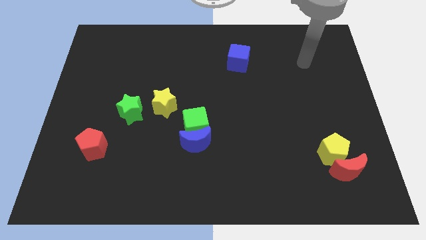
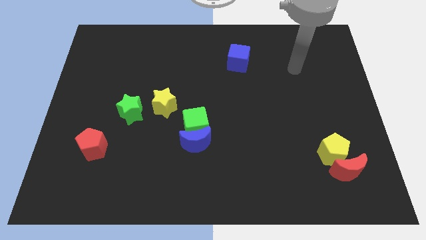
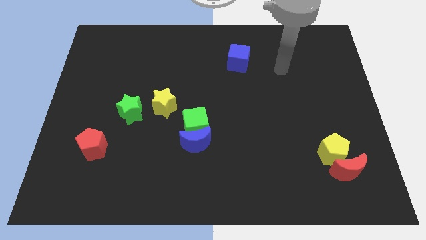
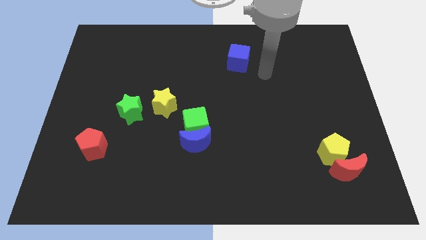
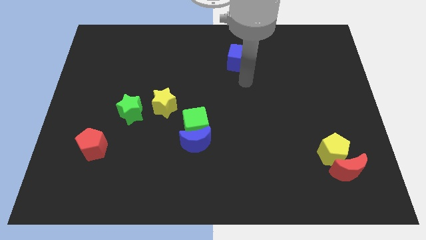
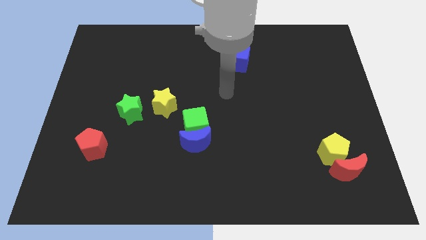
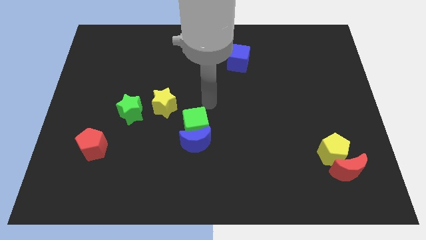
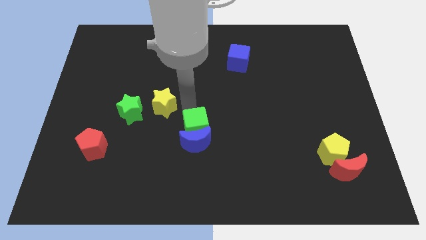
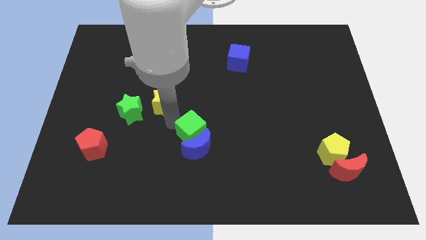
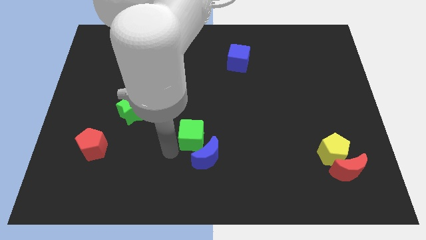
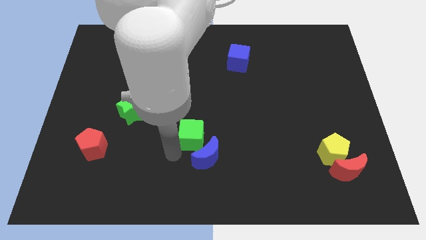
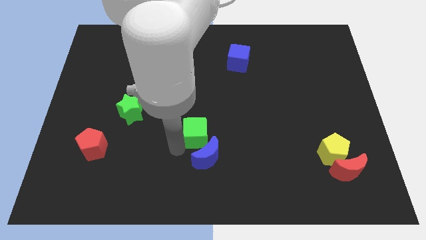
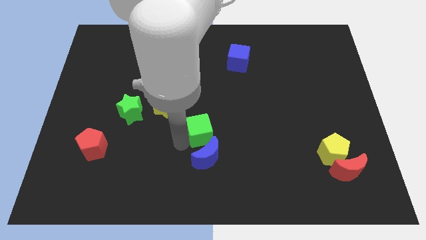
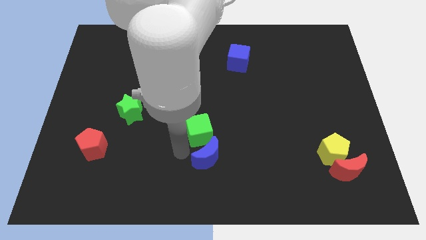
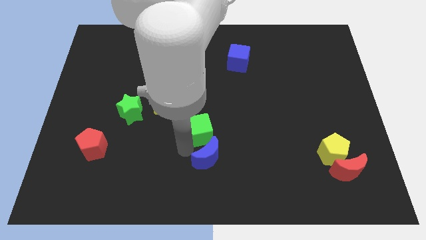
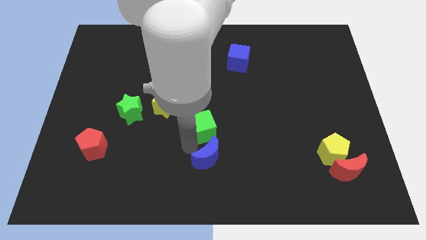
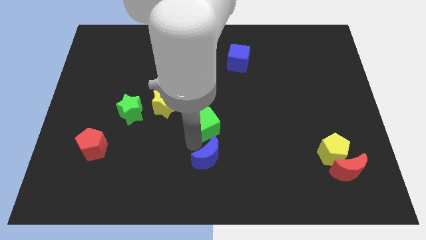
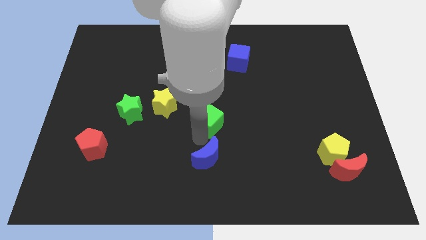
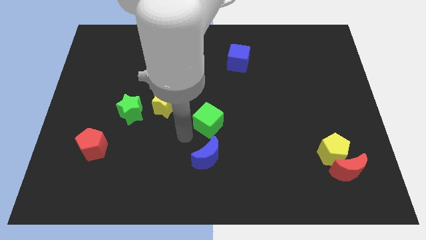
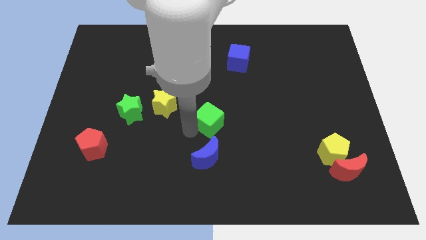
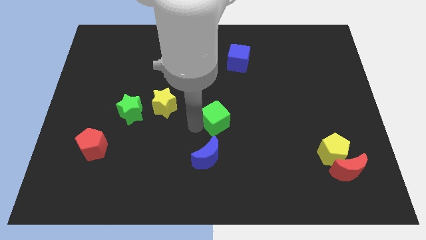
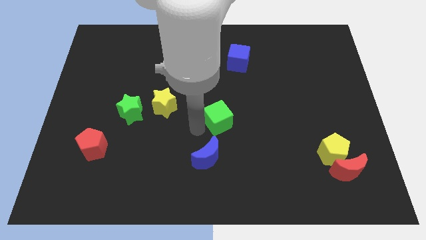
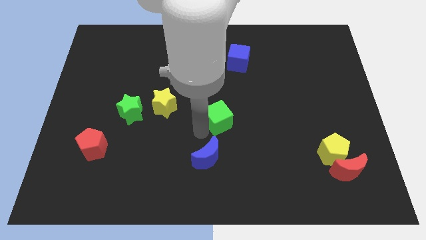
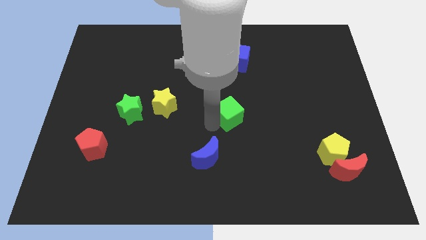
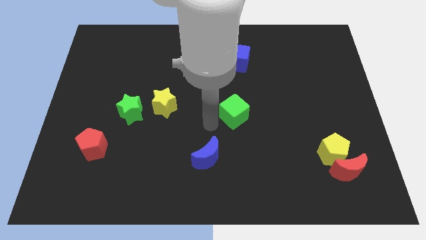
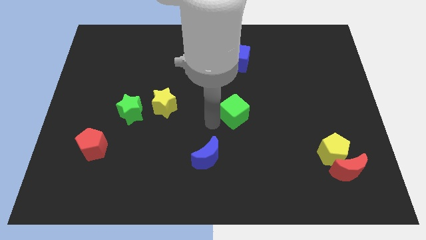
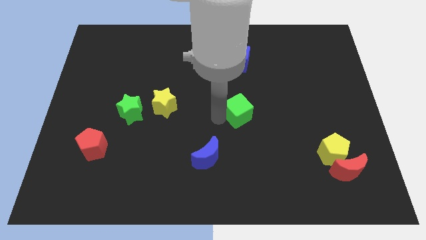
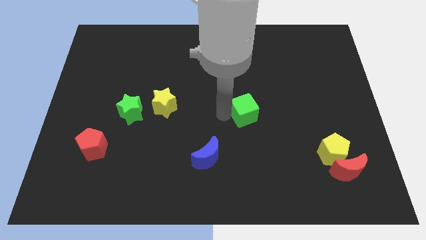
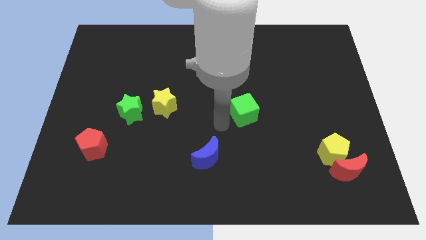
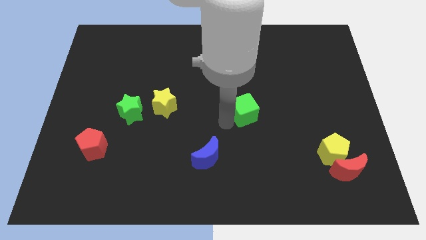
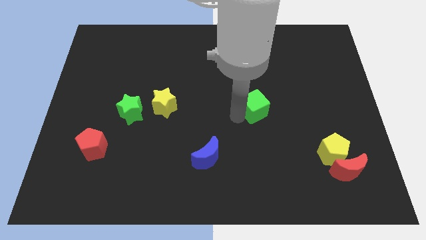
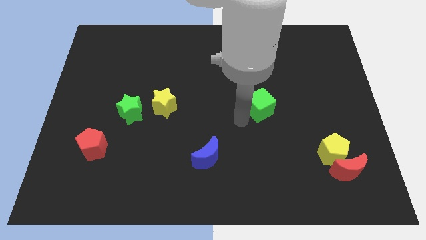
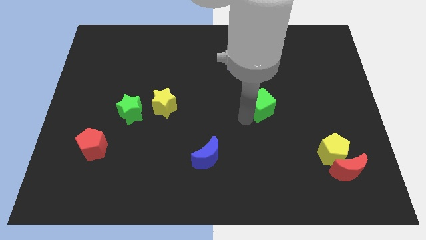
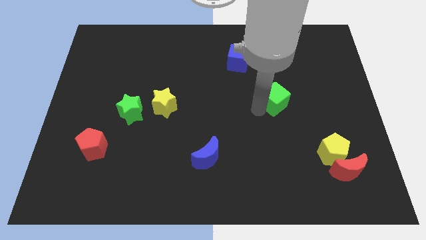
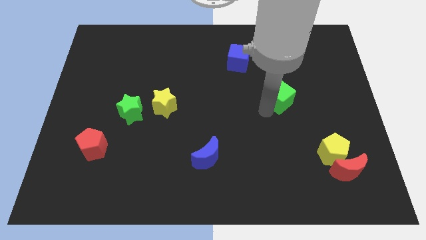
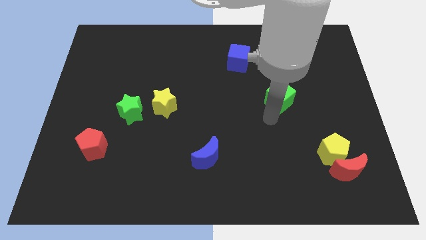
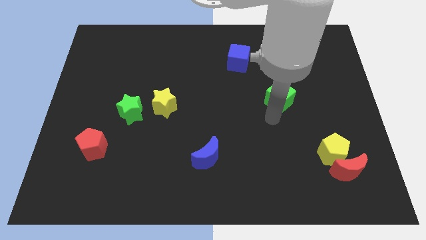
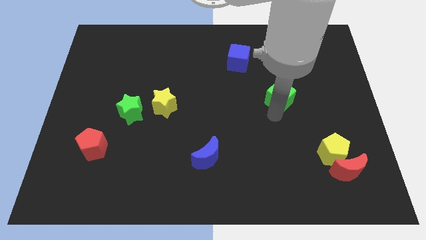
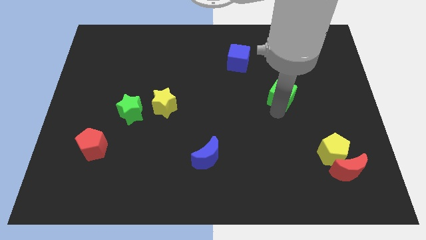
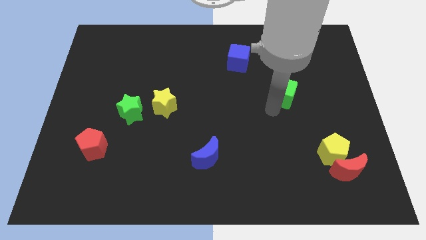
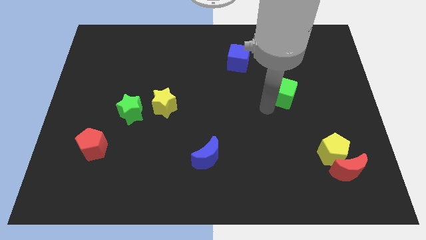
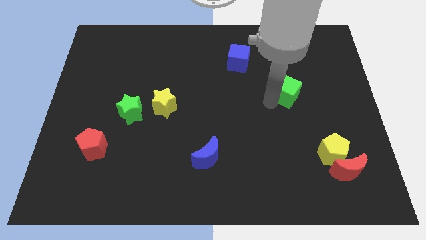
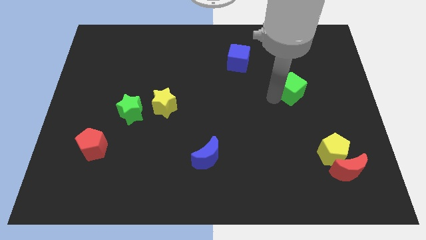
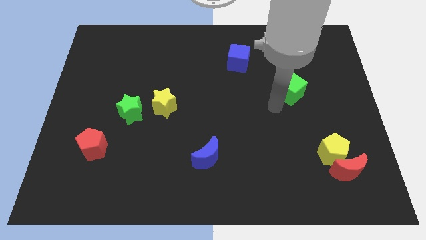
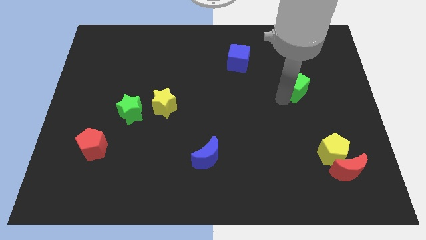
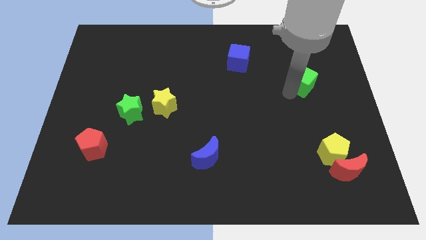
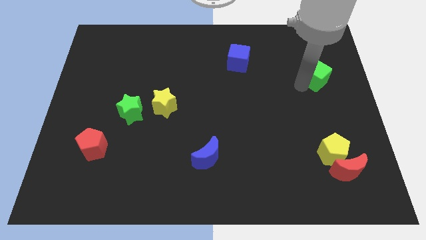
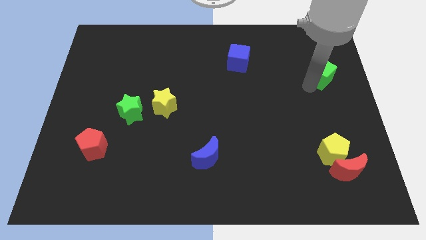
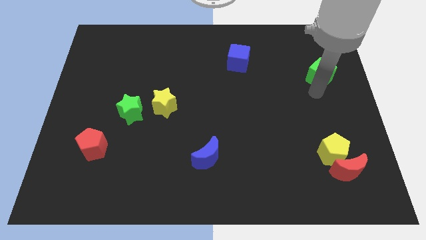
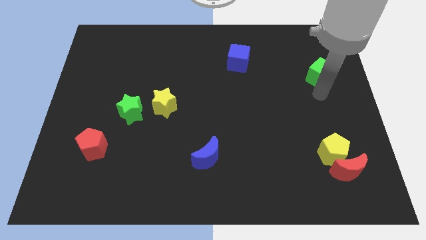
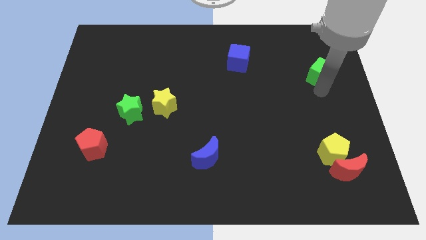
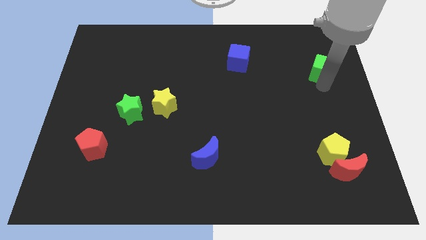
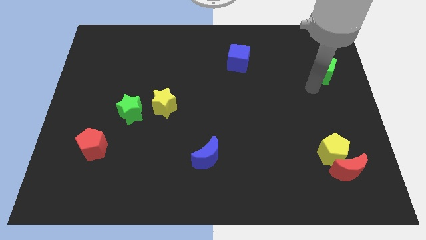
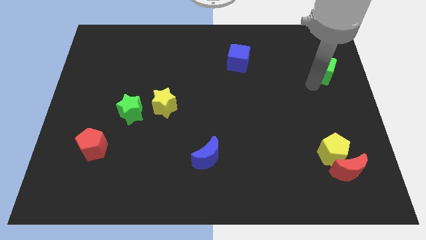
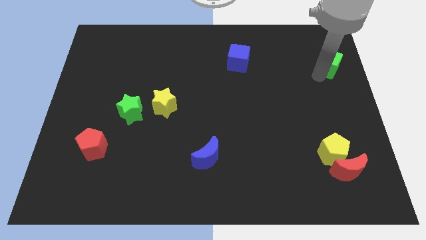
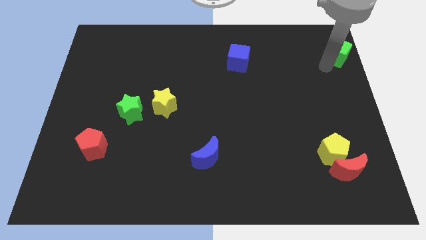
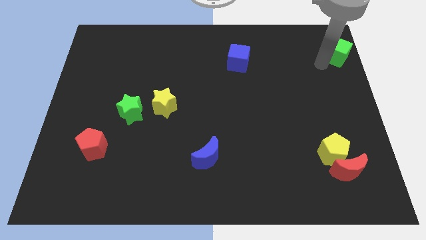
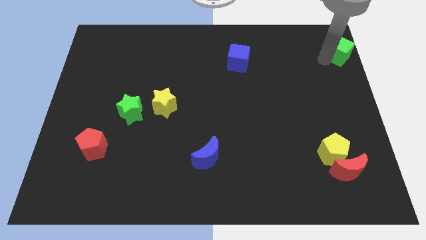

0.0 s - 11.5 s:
push the green cube to the top right

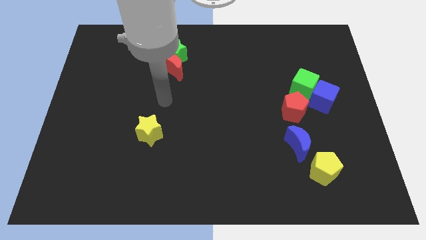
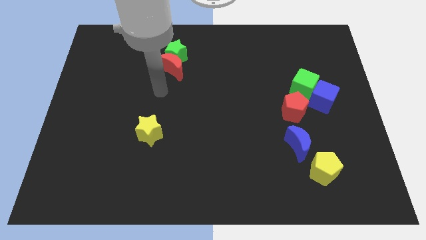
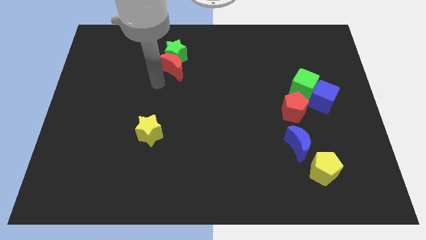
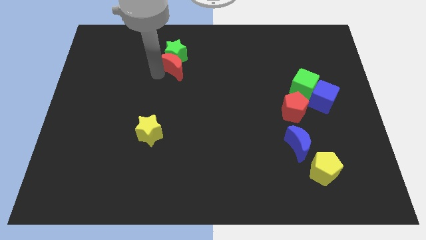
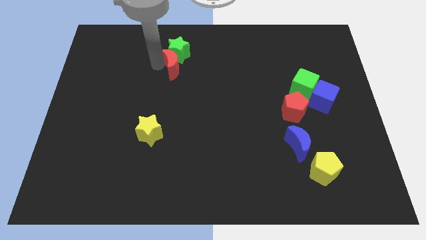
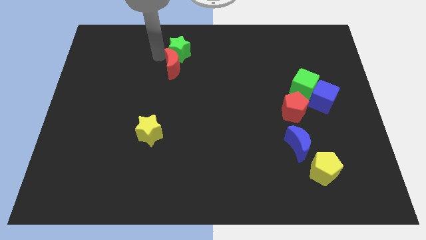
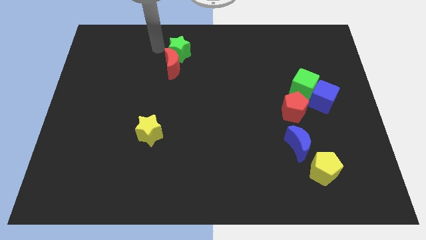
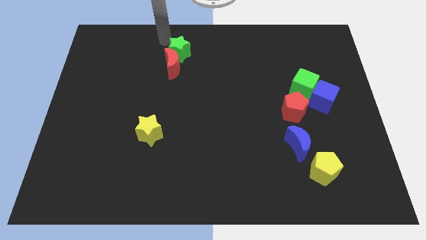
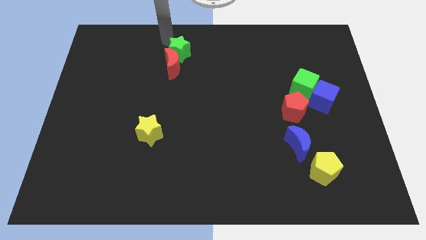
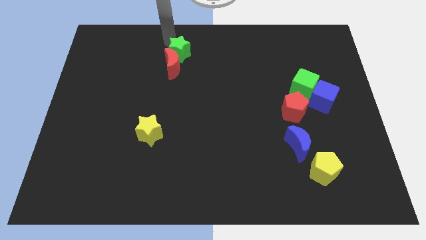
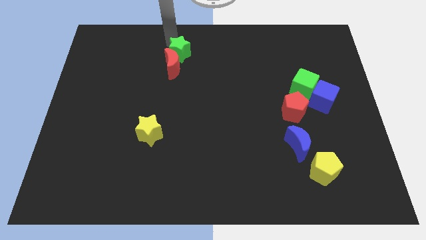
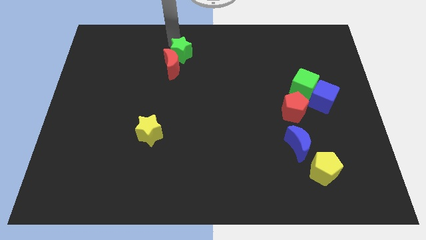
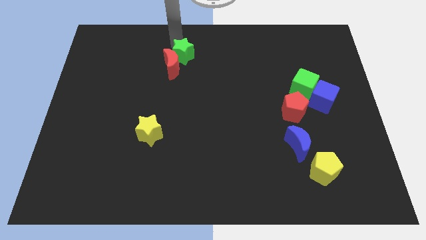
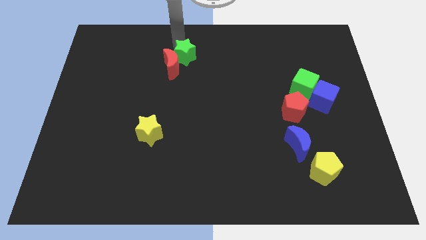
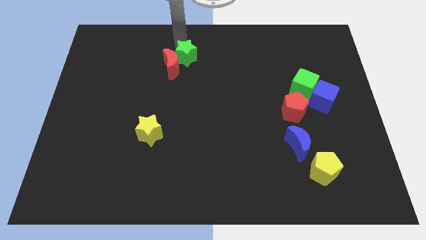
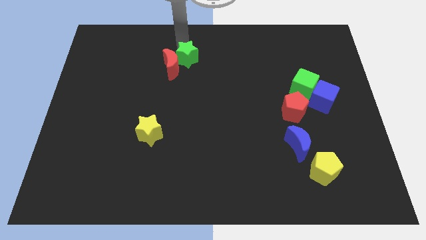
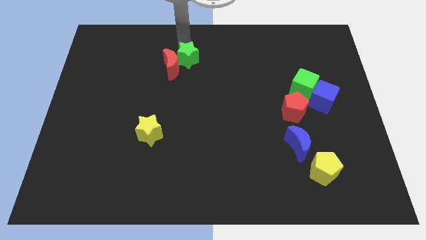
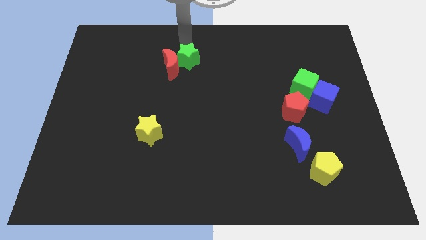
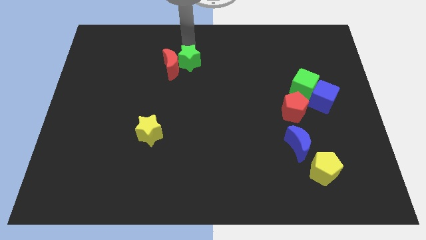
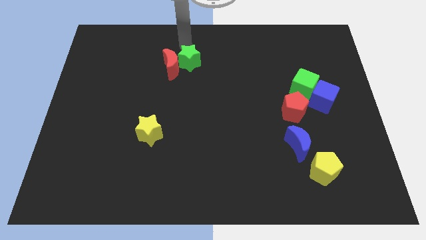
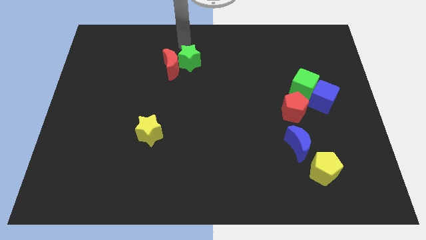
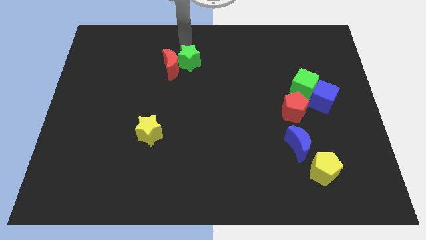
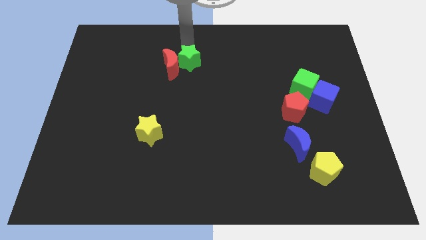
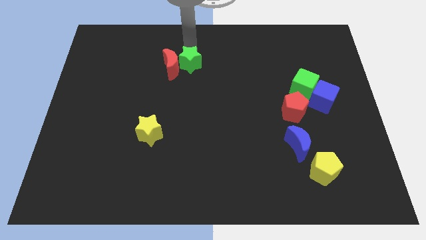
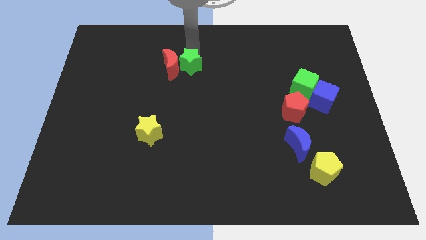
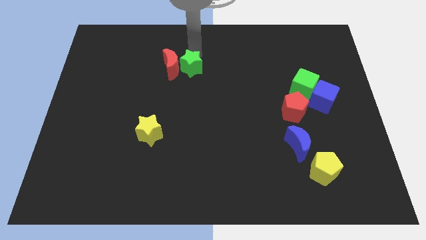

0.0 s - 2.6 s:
push the green star to the middle of the board
